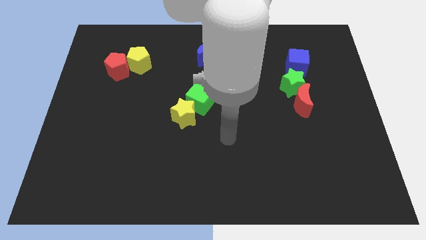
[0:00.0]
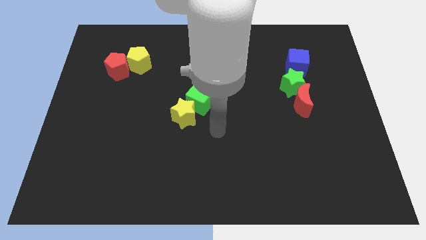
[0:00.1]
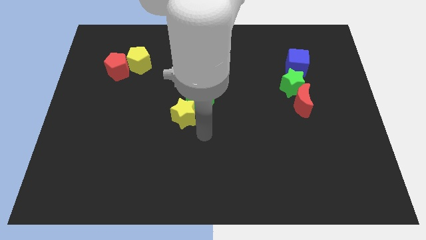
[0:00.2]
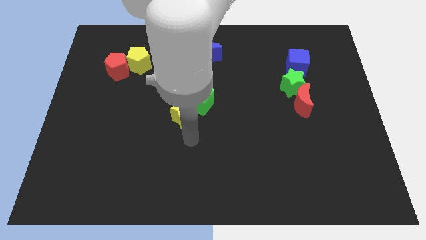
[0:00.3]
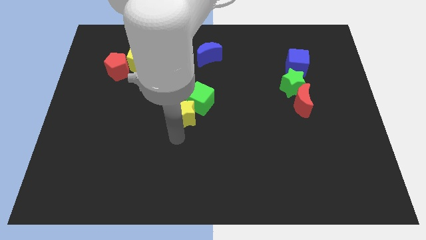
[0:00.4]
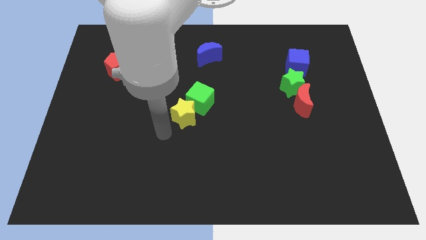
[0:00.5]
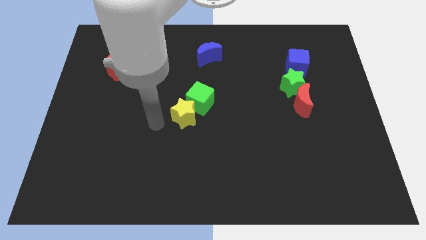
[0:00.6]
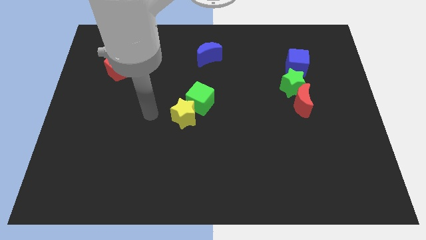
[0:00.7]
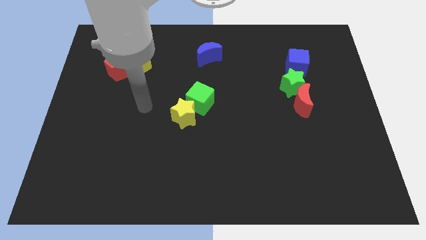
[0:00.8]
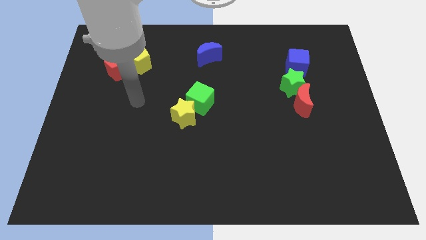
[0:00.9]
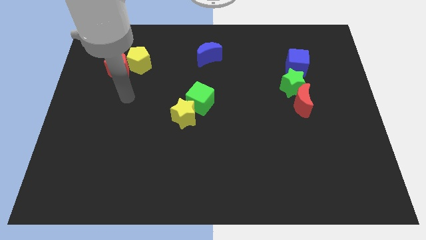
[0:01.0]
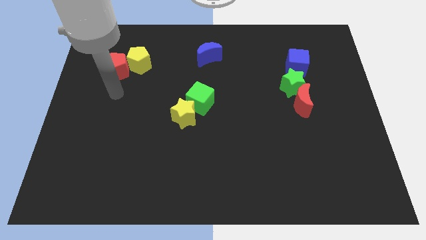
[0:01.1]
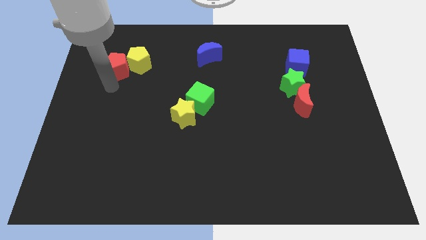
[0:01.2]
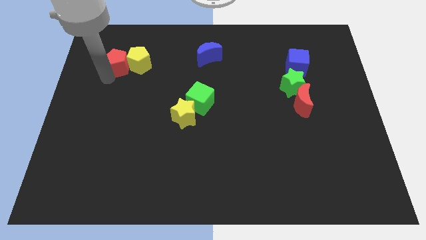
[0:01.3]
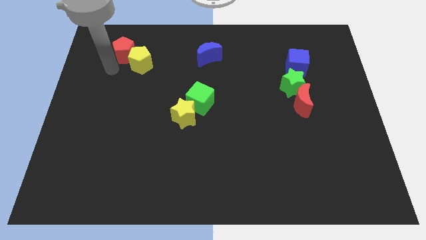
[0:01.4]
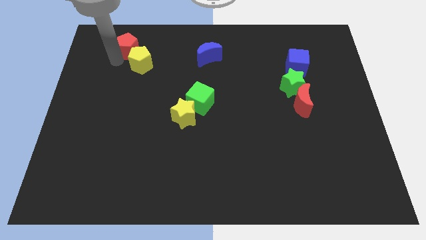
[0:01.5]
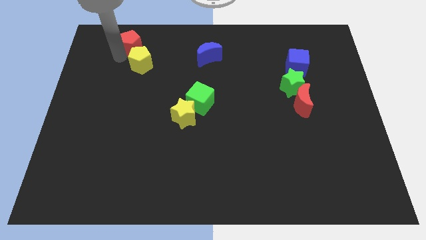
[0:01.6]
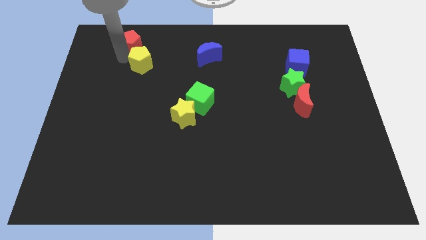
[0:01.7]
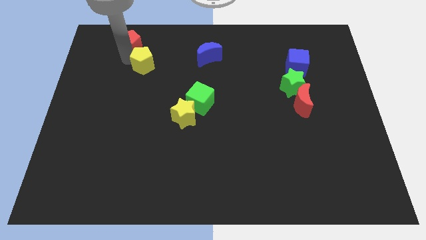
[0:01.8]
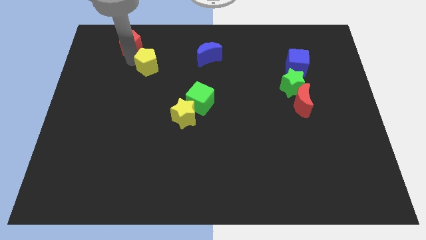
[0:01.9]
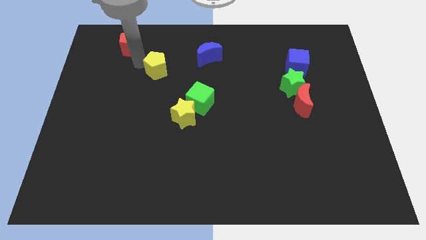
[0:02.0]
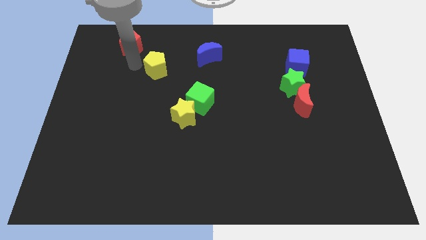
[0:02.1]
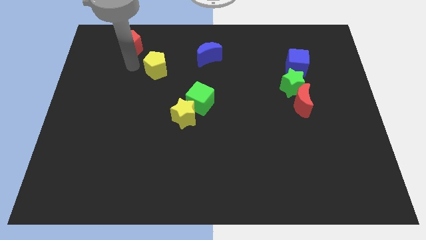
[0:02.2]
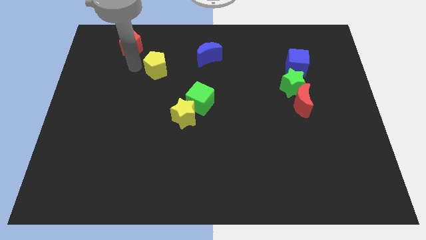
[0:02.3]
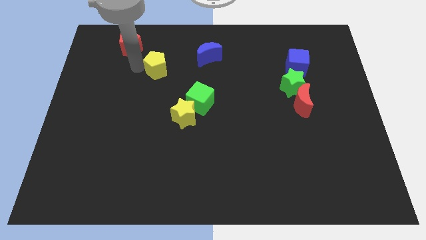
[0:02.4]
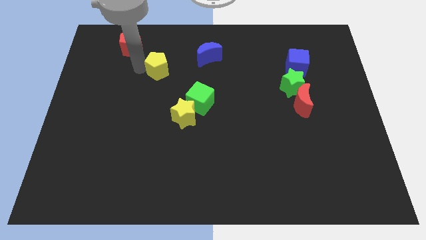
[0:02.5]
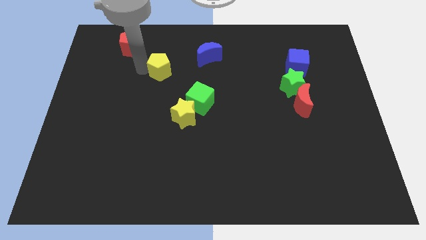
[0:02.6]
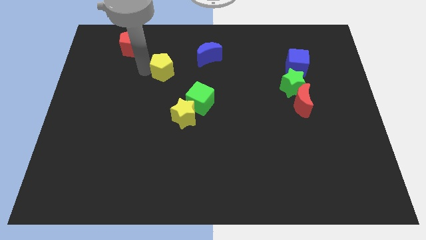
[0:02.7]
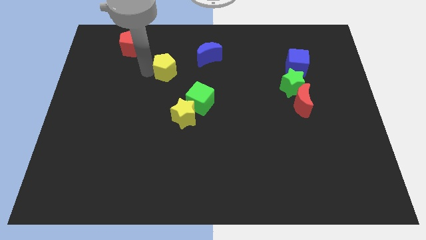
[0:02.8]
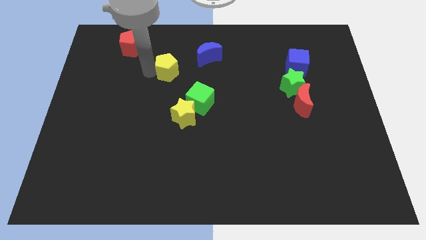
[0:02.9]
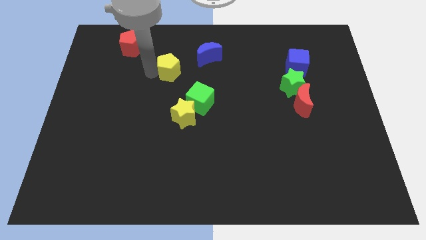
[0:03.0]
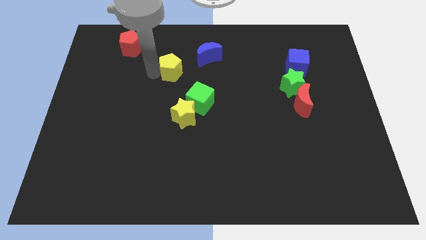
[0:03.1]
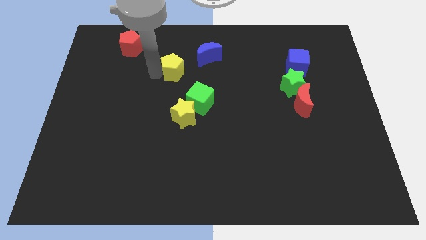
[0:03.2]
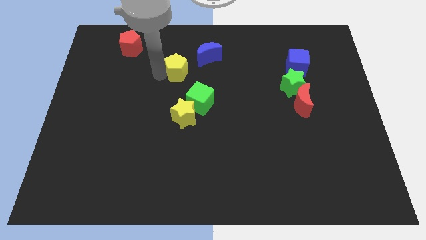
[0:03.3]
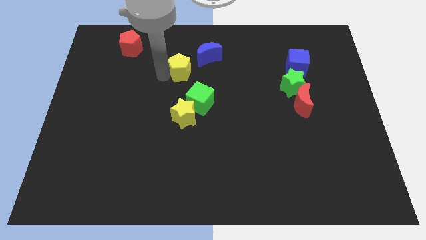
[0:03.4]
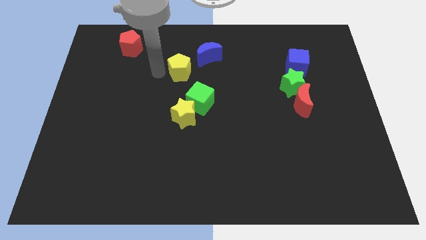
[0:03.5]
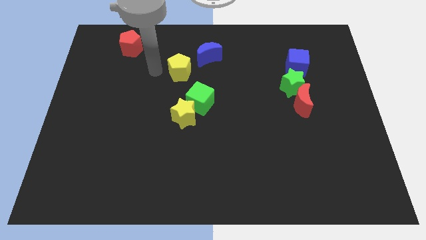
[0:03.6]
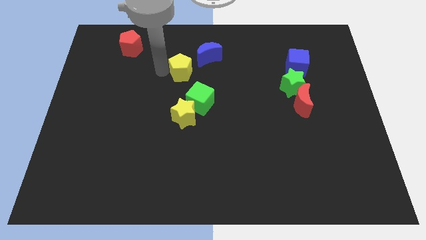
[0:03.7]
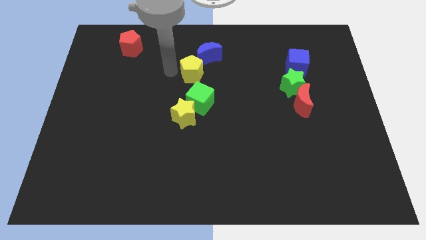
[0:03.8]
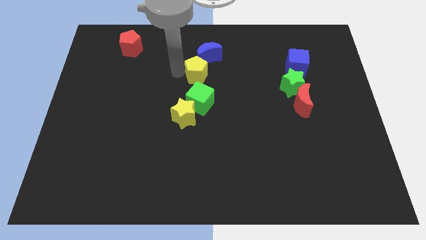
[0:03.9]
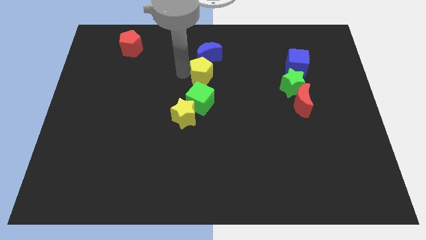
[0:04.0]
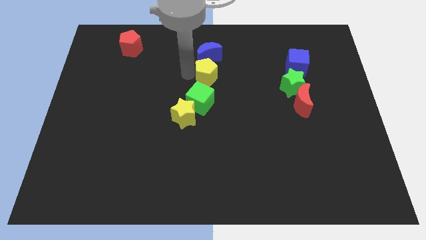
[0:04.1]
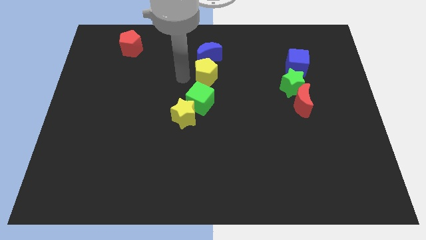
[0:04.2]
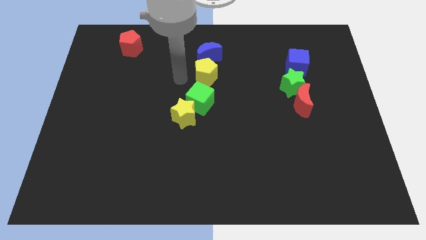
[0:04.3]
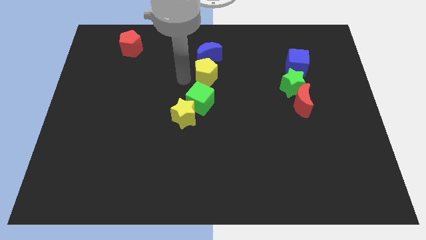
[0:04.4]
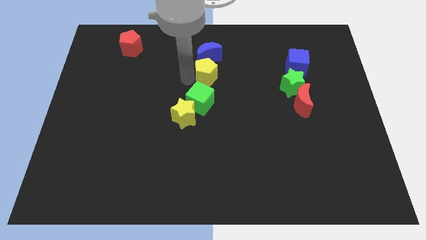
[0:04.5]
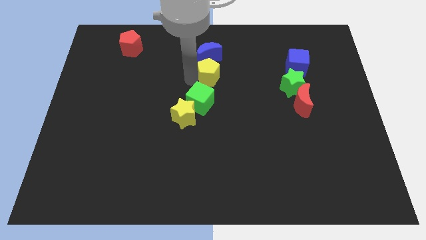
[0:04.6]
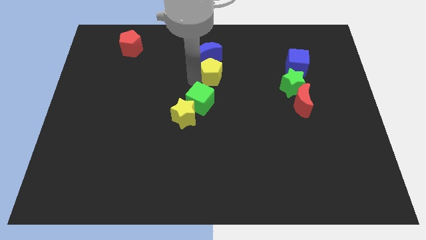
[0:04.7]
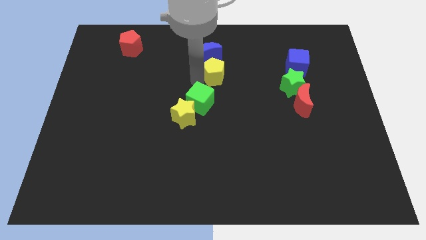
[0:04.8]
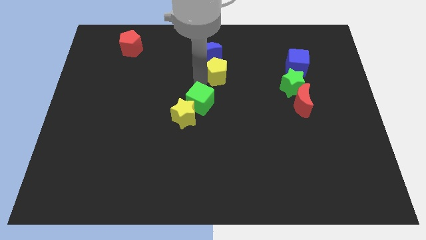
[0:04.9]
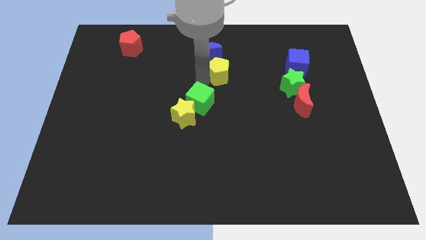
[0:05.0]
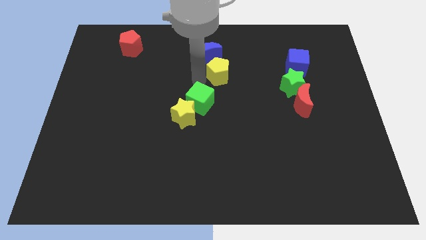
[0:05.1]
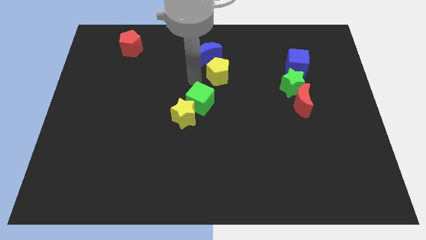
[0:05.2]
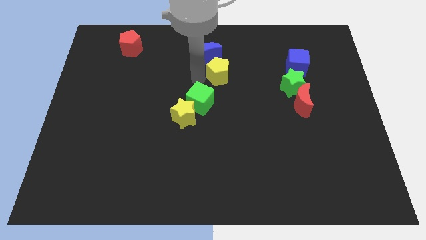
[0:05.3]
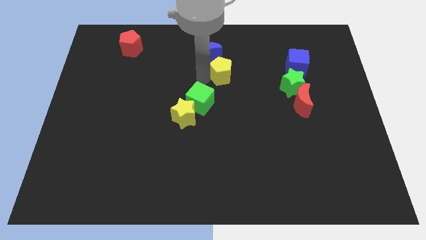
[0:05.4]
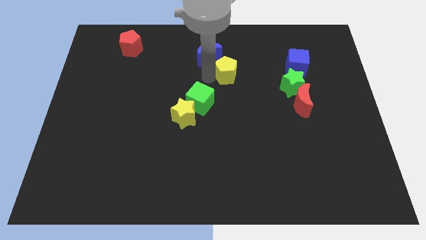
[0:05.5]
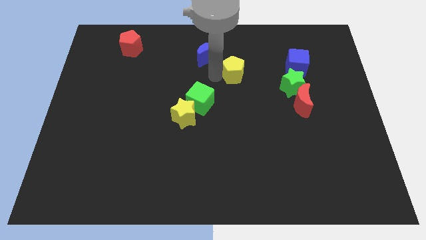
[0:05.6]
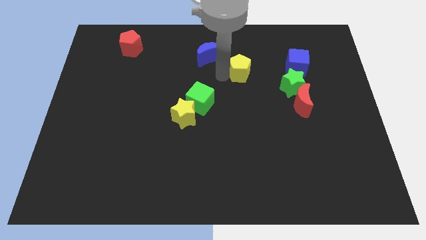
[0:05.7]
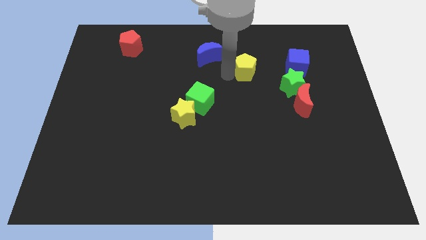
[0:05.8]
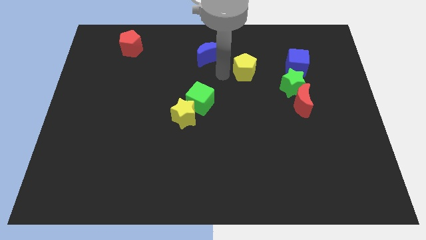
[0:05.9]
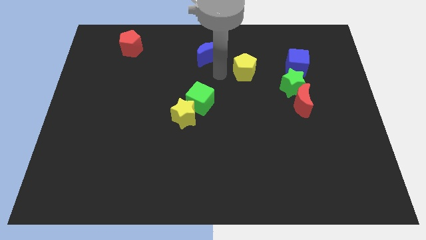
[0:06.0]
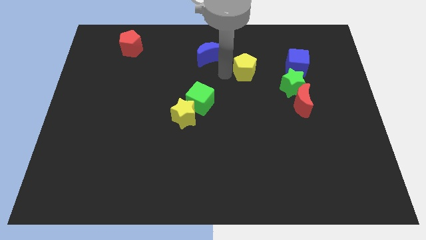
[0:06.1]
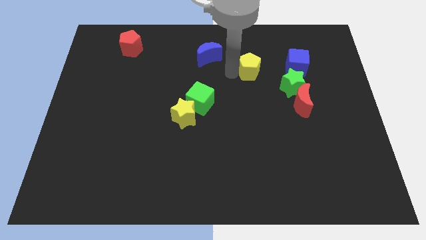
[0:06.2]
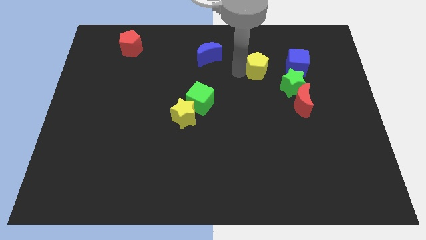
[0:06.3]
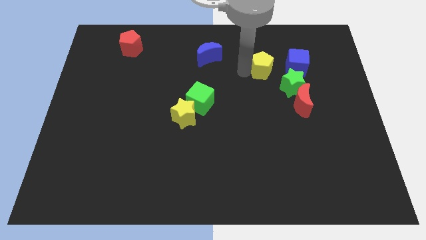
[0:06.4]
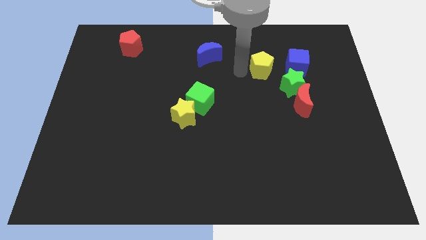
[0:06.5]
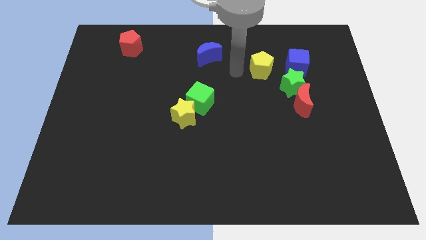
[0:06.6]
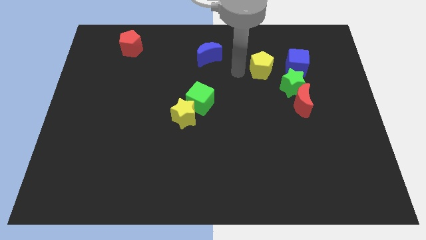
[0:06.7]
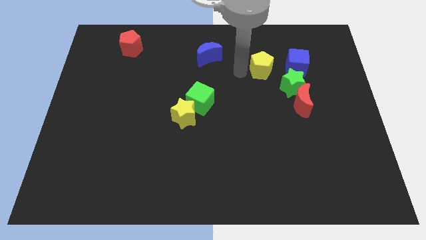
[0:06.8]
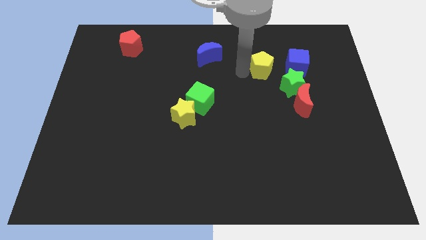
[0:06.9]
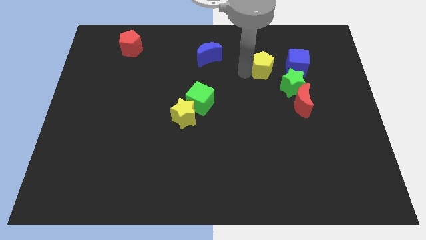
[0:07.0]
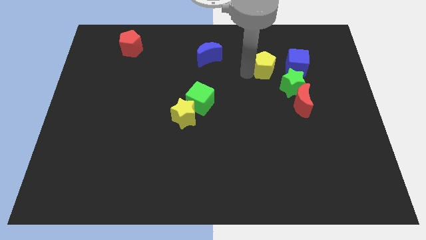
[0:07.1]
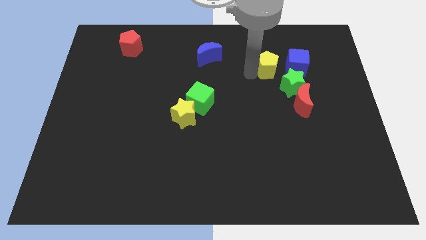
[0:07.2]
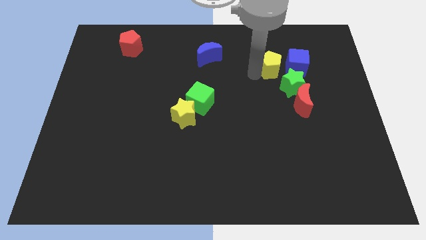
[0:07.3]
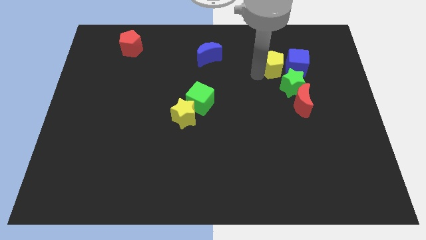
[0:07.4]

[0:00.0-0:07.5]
slide the yellow pentagon to the blue cube

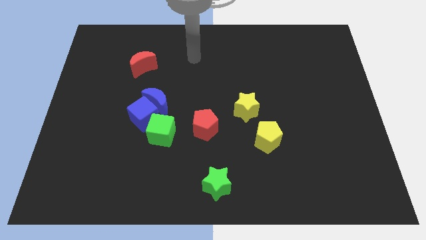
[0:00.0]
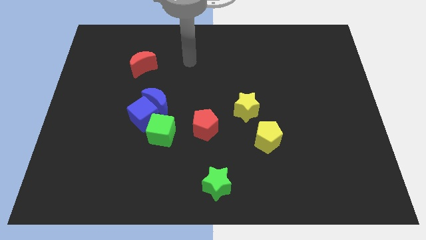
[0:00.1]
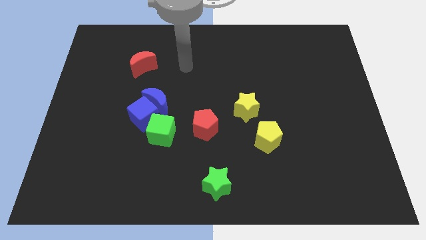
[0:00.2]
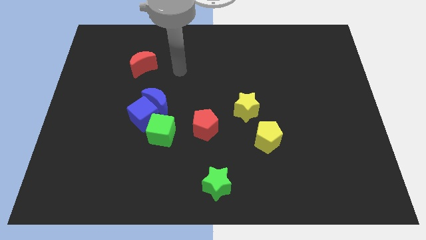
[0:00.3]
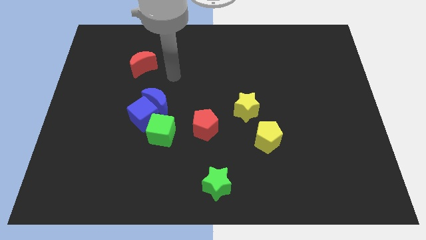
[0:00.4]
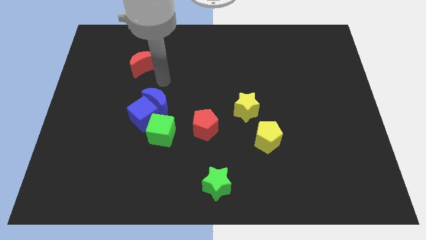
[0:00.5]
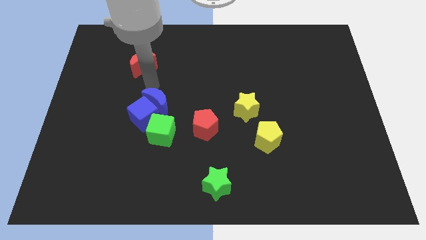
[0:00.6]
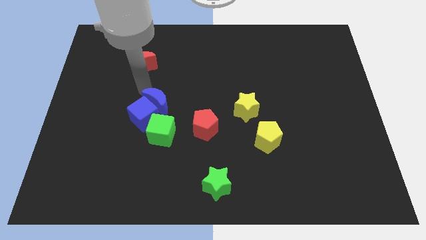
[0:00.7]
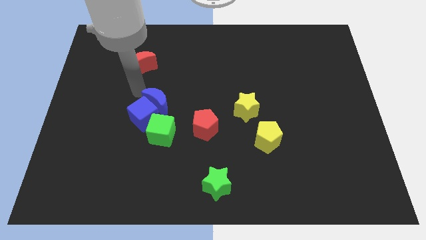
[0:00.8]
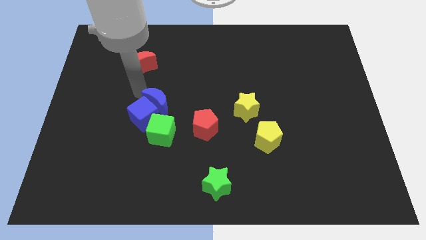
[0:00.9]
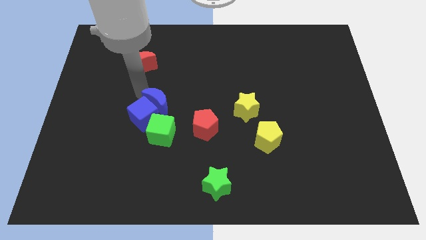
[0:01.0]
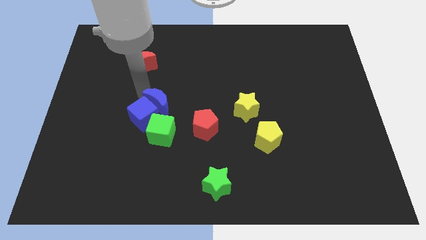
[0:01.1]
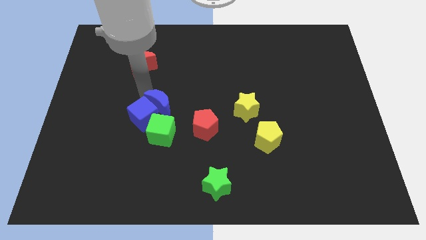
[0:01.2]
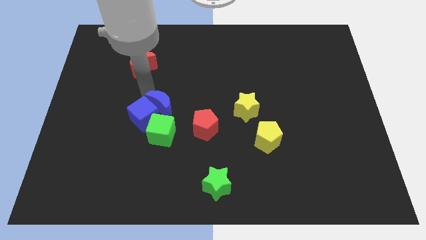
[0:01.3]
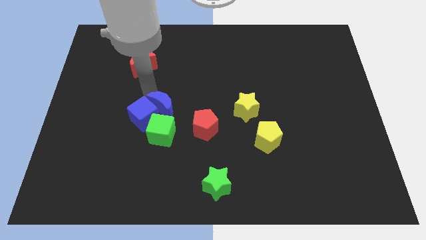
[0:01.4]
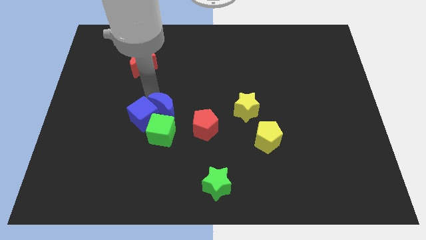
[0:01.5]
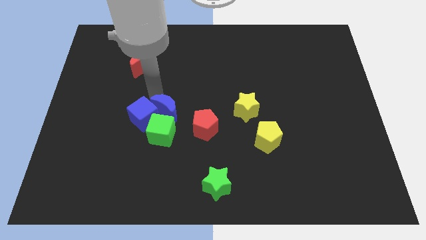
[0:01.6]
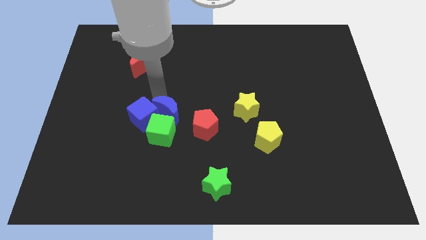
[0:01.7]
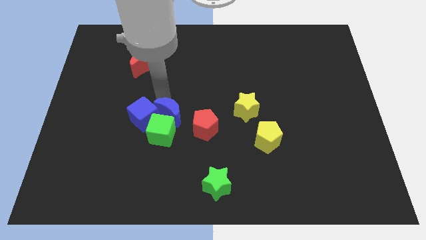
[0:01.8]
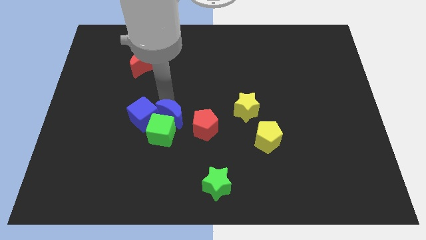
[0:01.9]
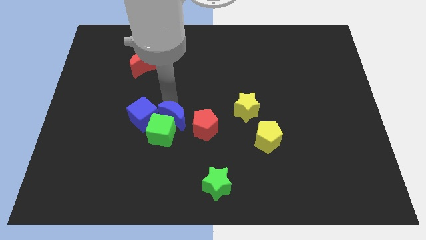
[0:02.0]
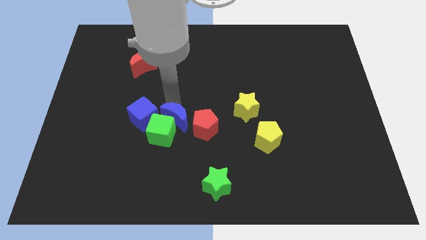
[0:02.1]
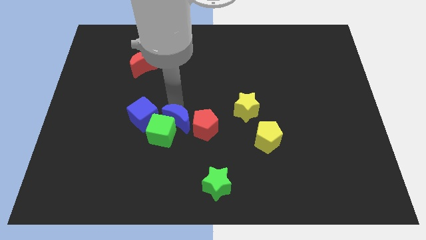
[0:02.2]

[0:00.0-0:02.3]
push the blue moon close to the red pentagon
